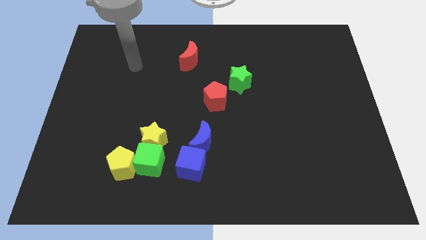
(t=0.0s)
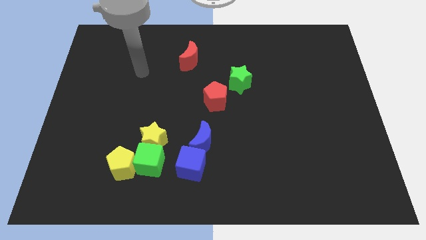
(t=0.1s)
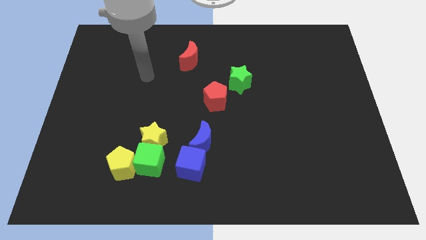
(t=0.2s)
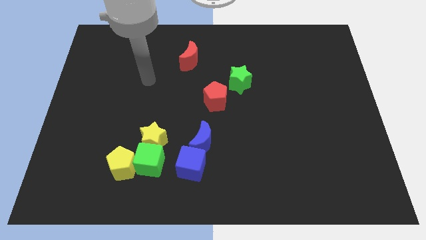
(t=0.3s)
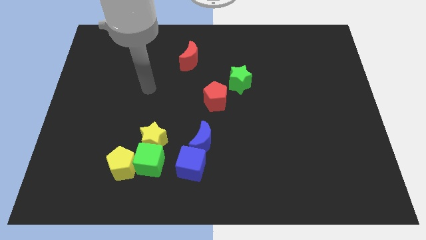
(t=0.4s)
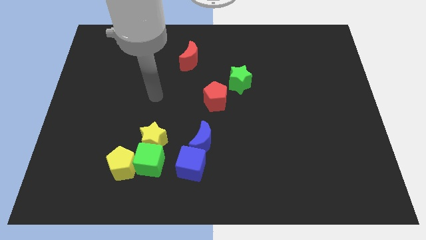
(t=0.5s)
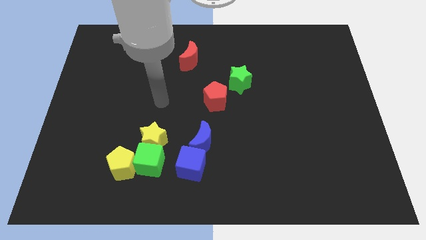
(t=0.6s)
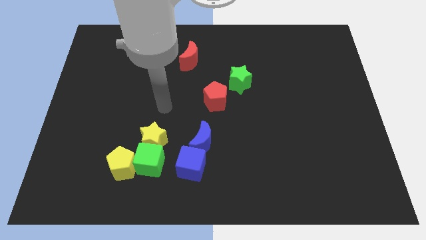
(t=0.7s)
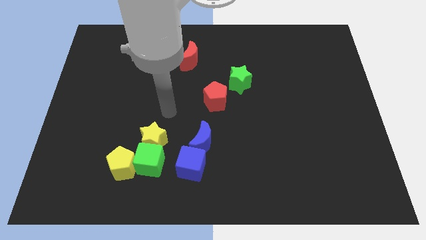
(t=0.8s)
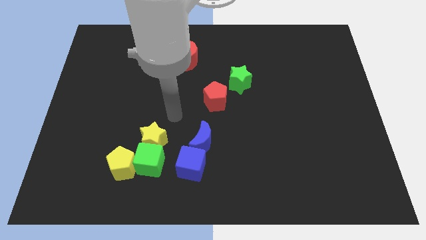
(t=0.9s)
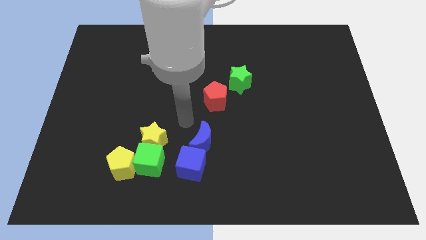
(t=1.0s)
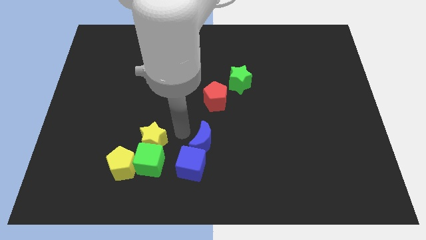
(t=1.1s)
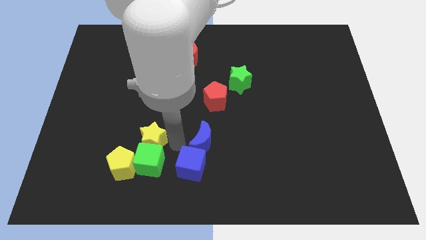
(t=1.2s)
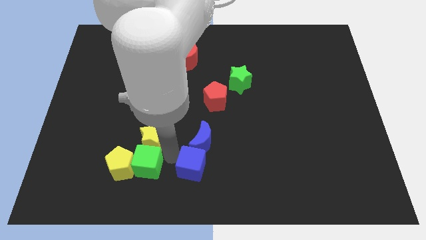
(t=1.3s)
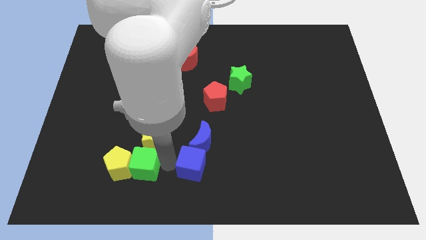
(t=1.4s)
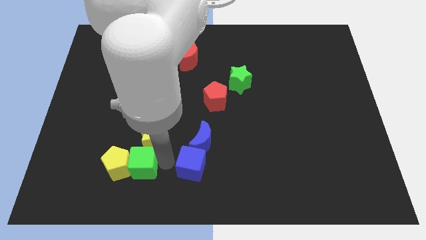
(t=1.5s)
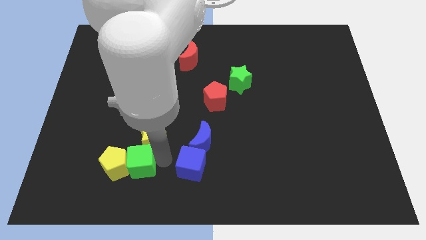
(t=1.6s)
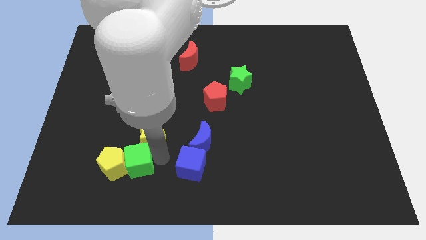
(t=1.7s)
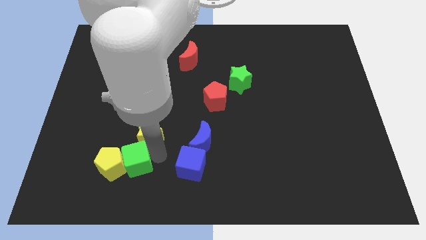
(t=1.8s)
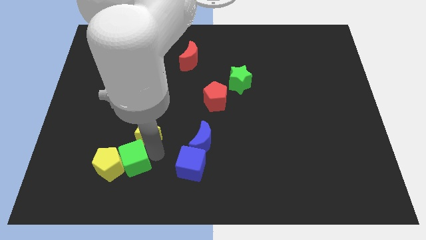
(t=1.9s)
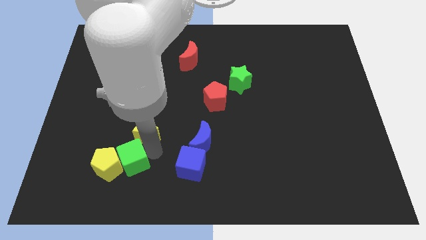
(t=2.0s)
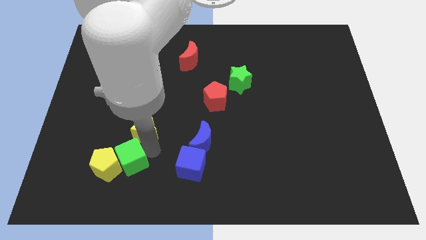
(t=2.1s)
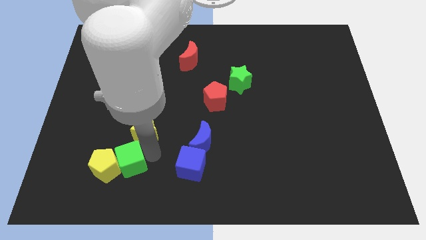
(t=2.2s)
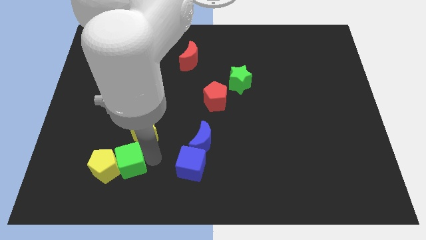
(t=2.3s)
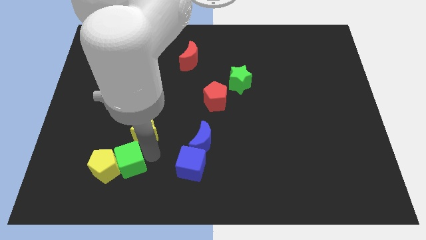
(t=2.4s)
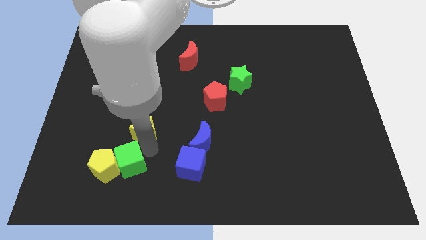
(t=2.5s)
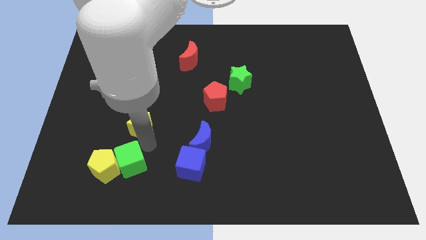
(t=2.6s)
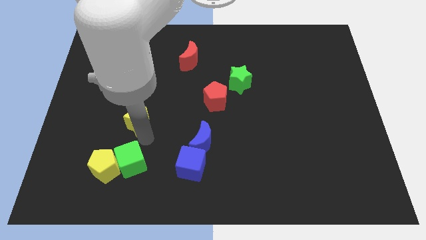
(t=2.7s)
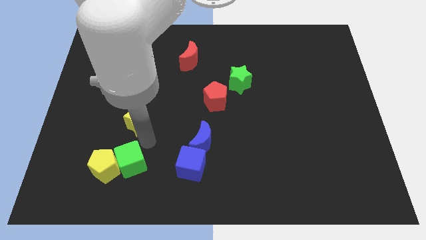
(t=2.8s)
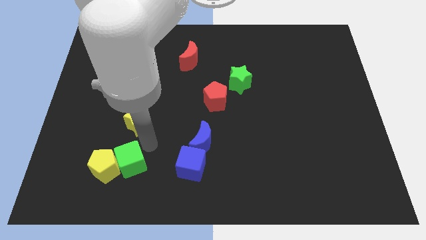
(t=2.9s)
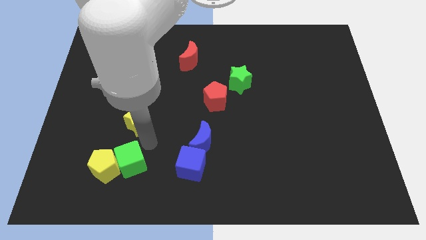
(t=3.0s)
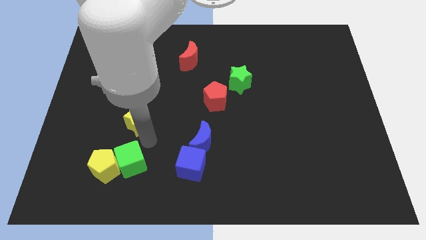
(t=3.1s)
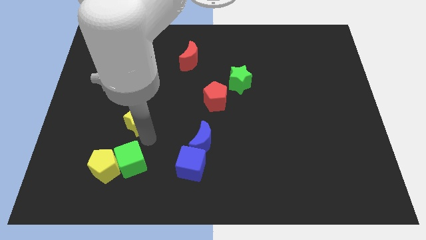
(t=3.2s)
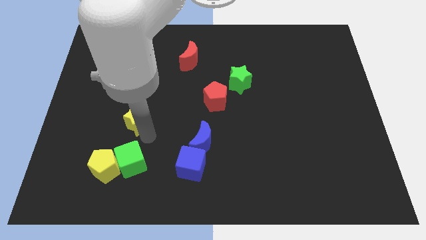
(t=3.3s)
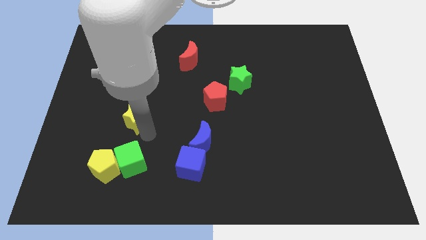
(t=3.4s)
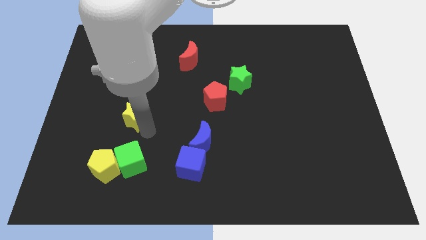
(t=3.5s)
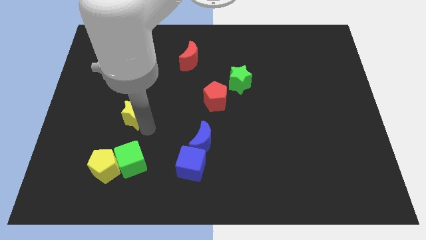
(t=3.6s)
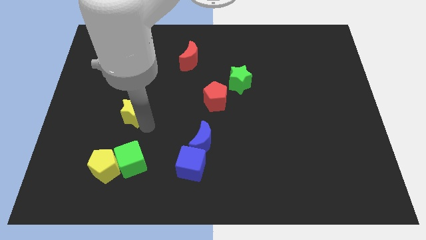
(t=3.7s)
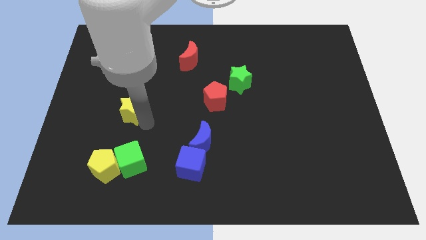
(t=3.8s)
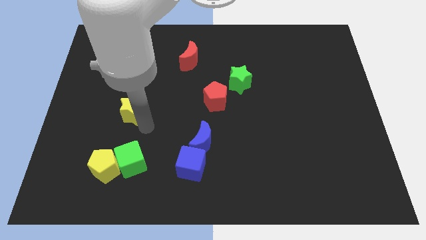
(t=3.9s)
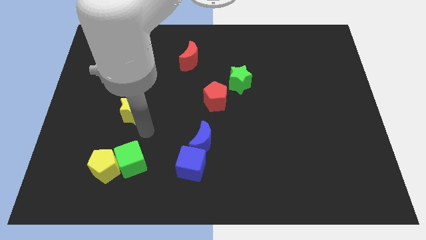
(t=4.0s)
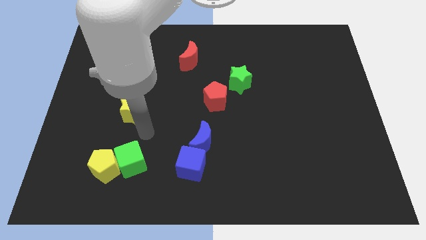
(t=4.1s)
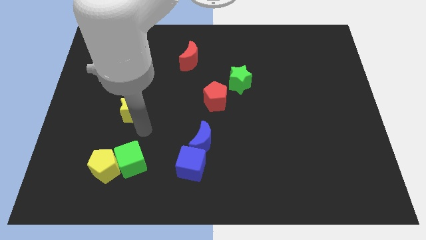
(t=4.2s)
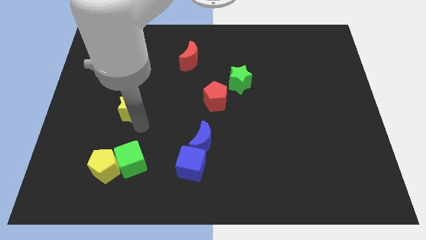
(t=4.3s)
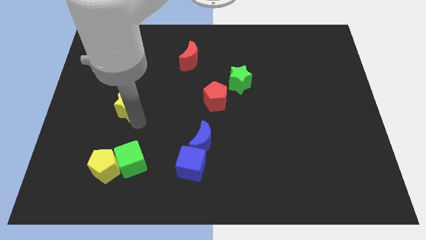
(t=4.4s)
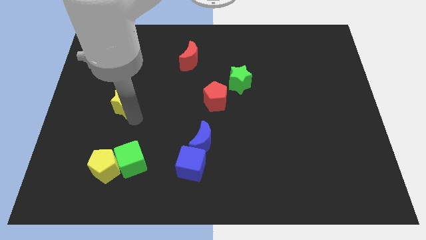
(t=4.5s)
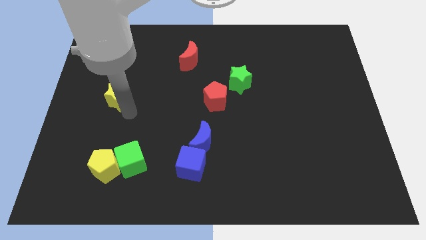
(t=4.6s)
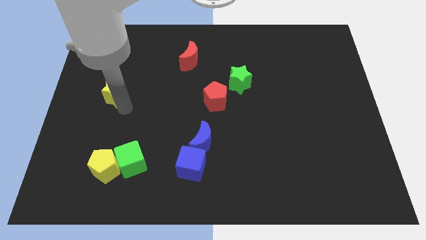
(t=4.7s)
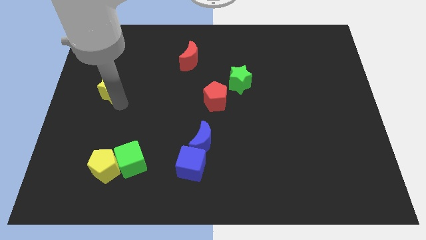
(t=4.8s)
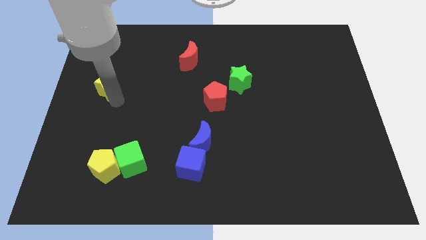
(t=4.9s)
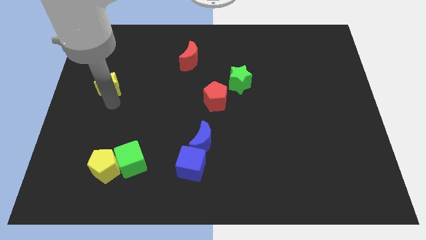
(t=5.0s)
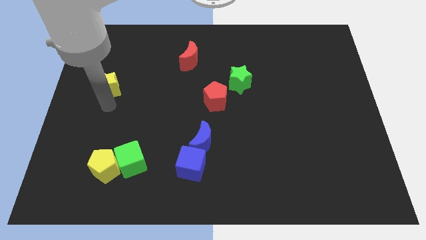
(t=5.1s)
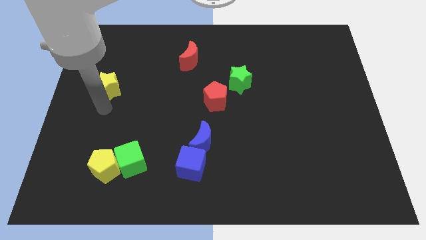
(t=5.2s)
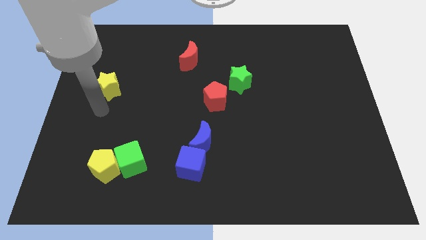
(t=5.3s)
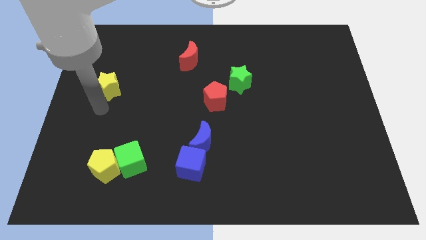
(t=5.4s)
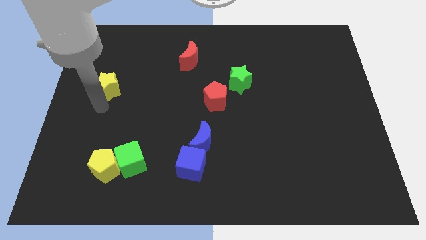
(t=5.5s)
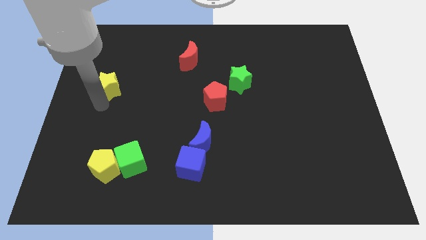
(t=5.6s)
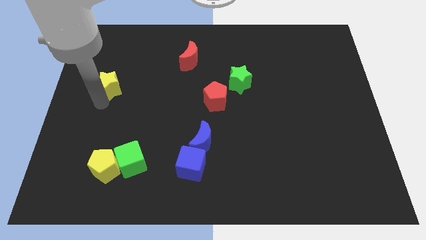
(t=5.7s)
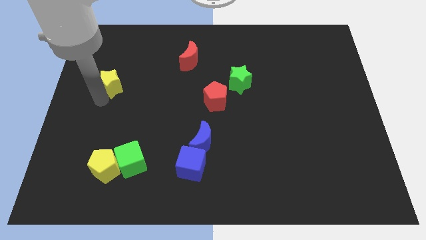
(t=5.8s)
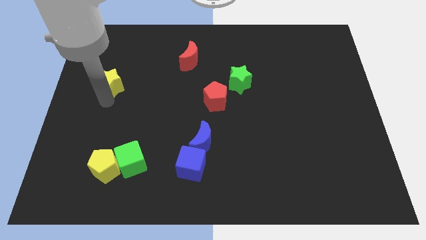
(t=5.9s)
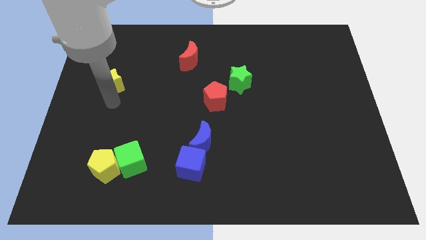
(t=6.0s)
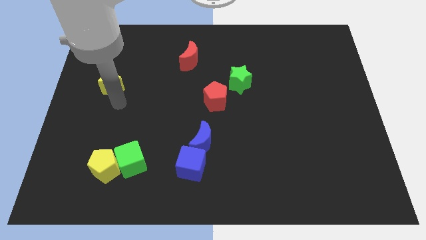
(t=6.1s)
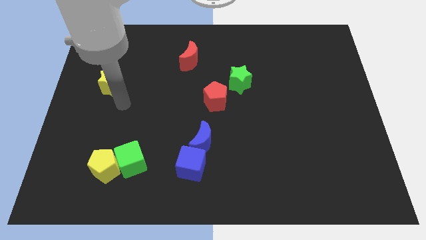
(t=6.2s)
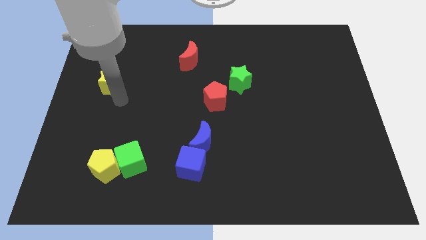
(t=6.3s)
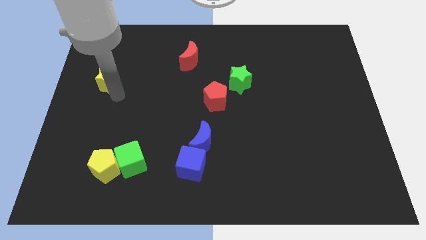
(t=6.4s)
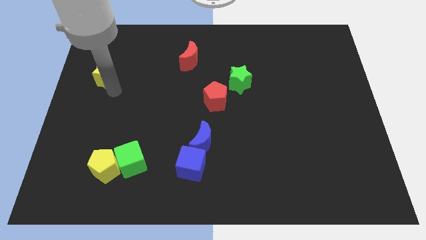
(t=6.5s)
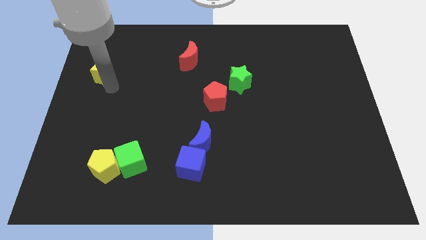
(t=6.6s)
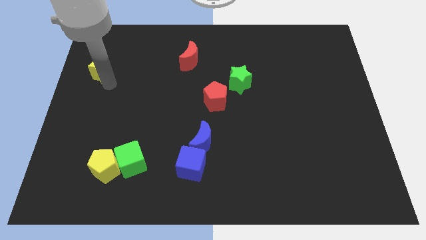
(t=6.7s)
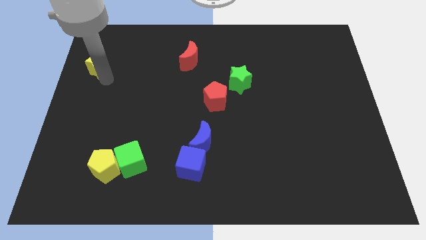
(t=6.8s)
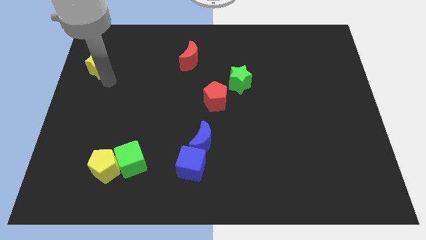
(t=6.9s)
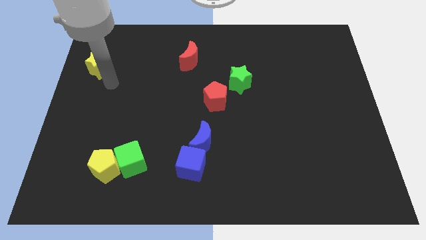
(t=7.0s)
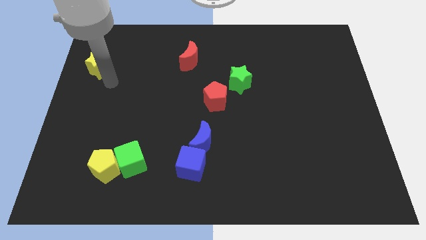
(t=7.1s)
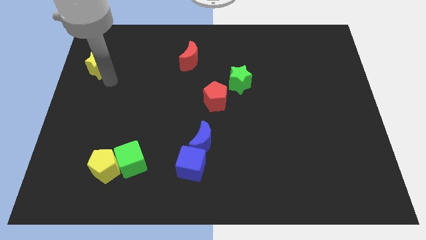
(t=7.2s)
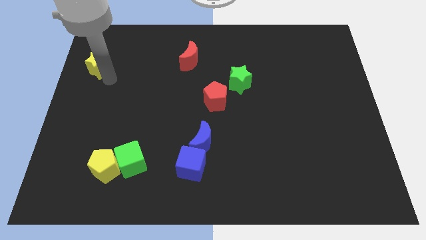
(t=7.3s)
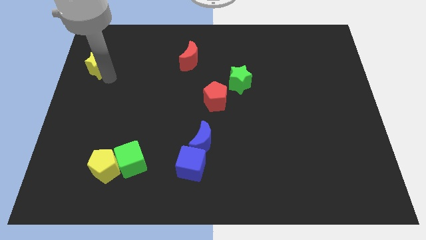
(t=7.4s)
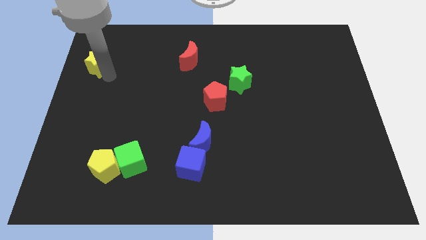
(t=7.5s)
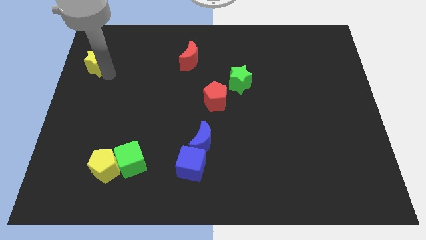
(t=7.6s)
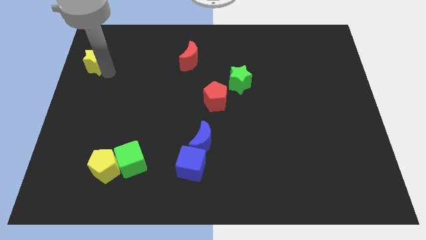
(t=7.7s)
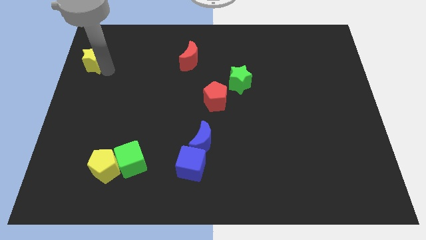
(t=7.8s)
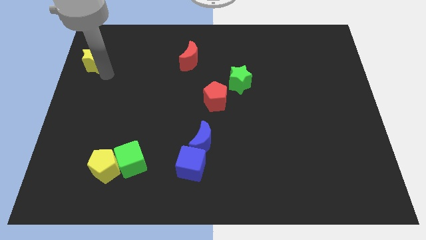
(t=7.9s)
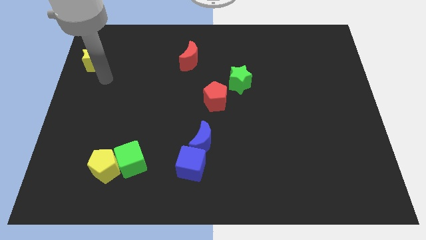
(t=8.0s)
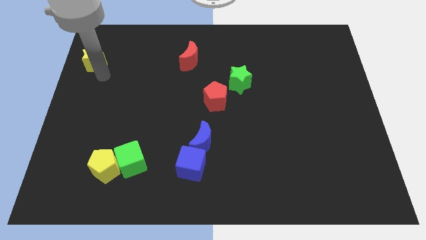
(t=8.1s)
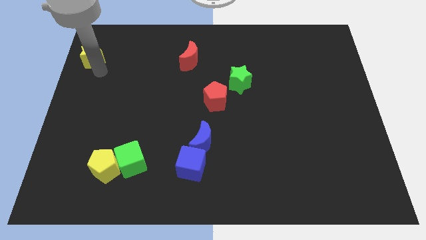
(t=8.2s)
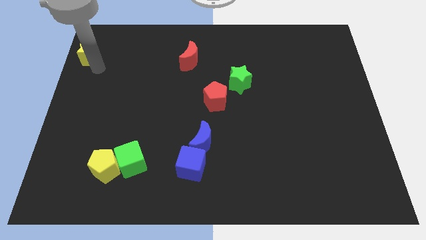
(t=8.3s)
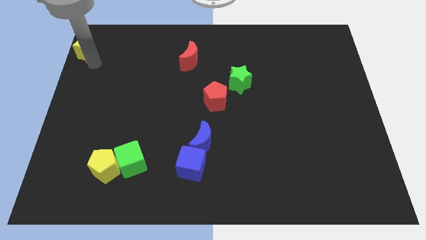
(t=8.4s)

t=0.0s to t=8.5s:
put the yellow star to the top left
